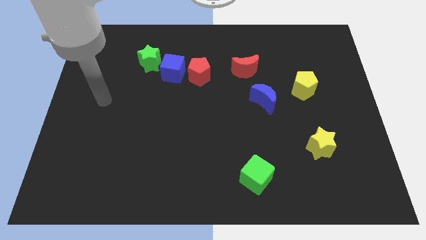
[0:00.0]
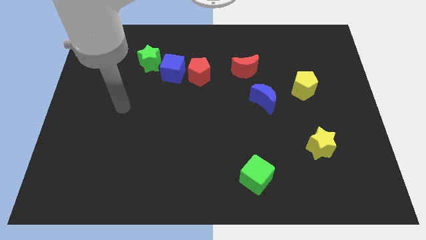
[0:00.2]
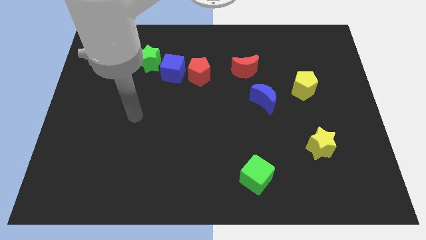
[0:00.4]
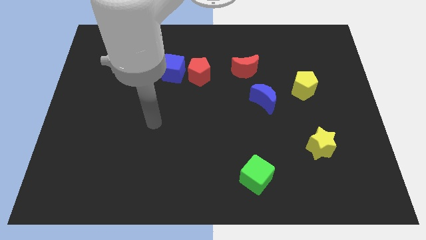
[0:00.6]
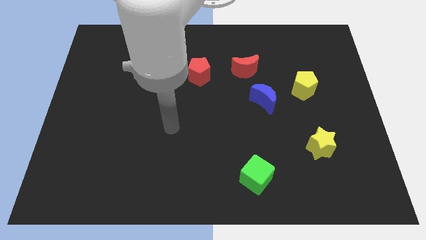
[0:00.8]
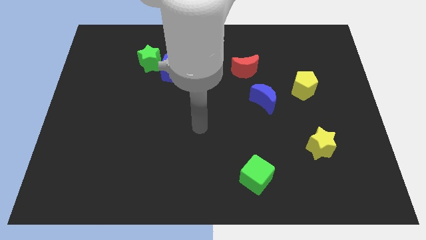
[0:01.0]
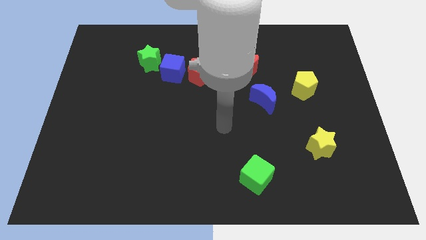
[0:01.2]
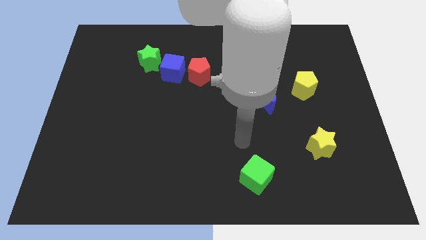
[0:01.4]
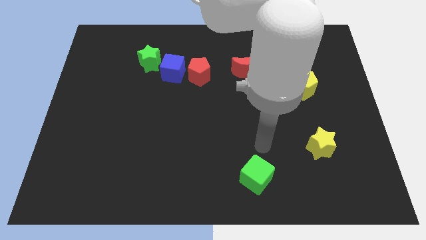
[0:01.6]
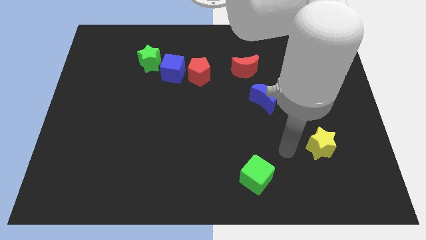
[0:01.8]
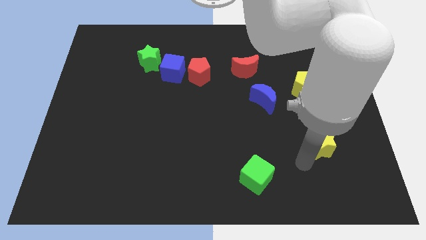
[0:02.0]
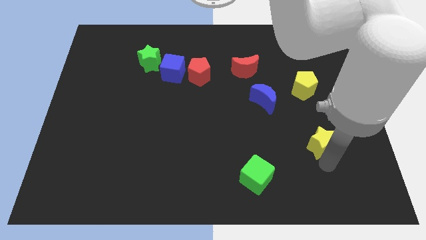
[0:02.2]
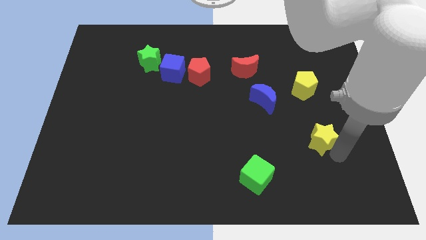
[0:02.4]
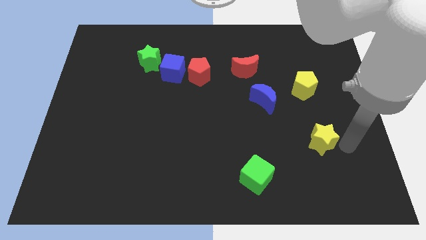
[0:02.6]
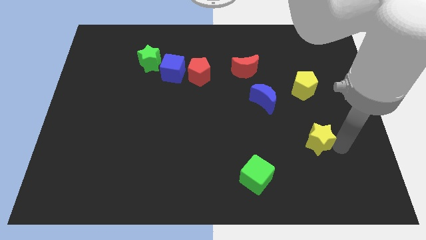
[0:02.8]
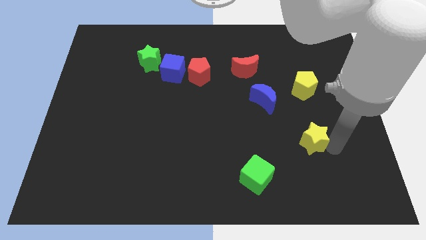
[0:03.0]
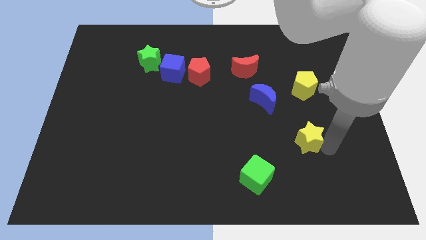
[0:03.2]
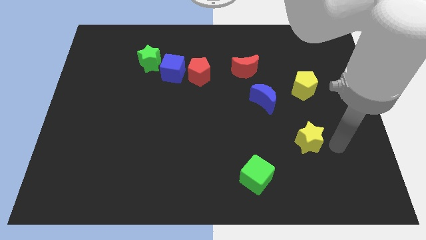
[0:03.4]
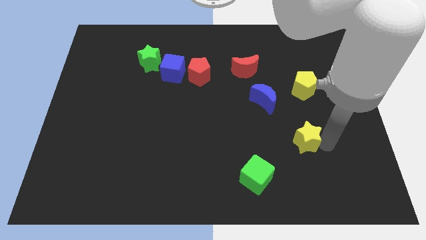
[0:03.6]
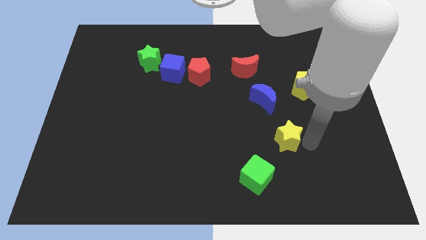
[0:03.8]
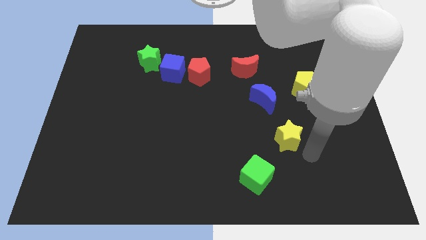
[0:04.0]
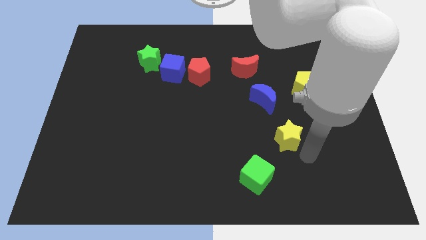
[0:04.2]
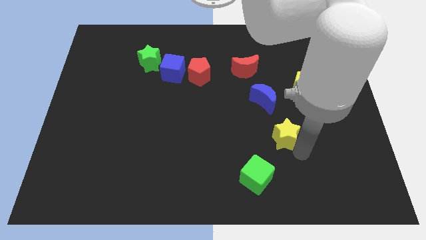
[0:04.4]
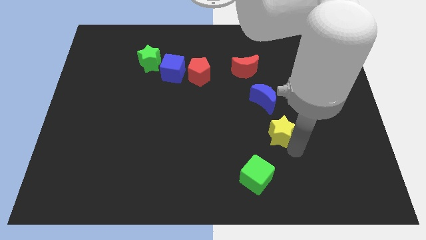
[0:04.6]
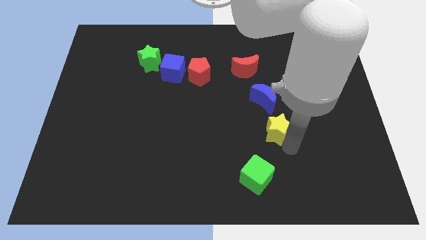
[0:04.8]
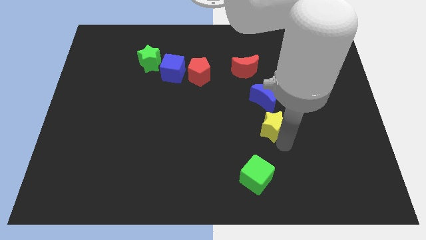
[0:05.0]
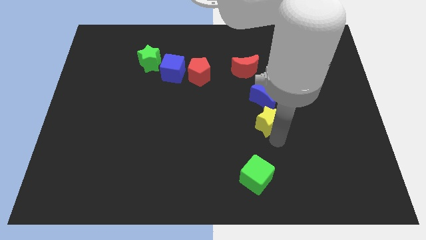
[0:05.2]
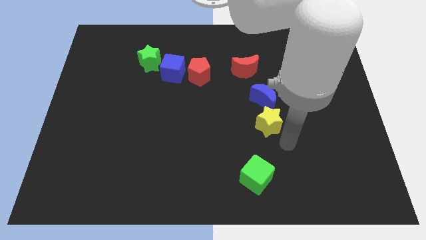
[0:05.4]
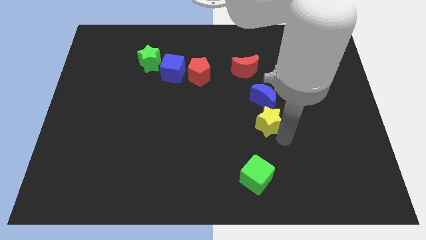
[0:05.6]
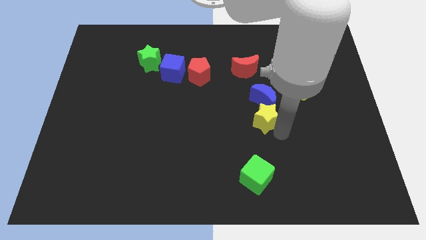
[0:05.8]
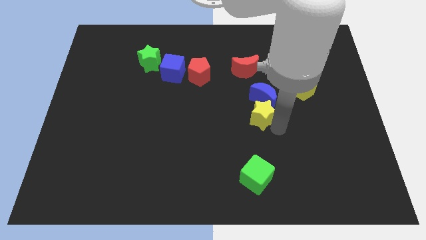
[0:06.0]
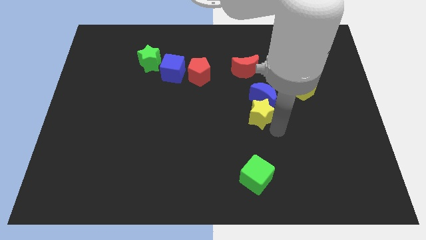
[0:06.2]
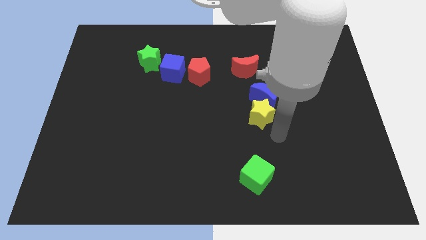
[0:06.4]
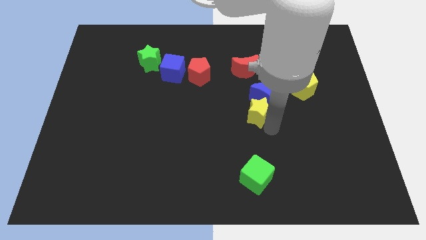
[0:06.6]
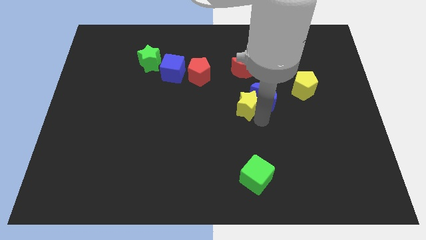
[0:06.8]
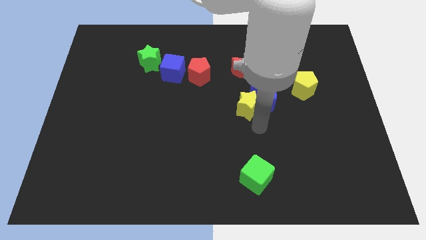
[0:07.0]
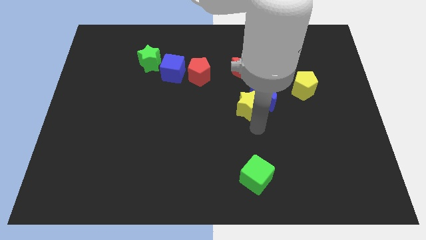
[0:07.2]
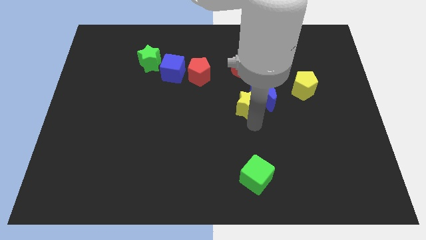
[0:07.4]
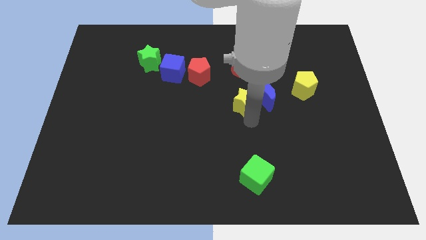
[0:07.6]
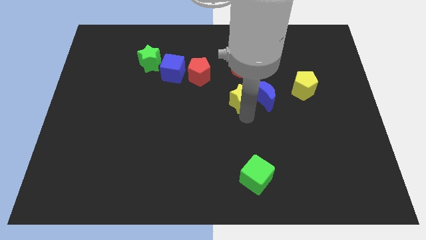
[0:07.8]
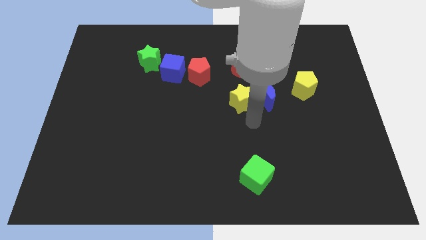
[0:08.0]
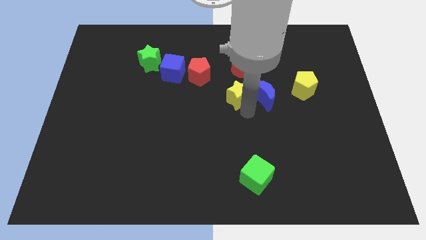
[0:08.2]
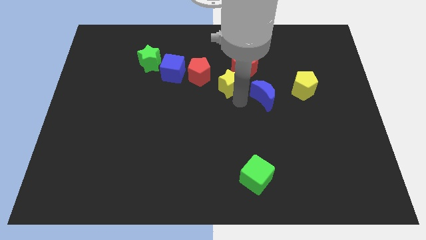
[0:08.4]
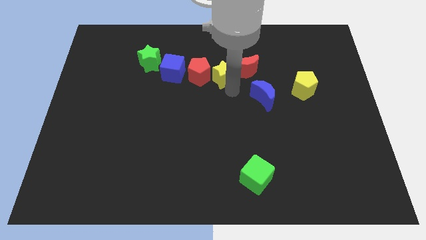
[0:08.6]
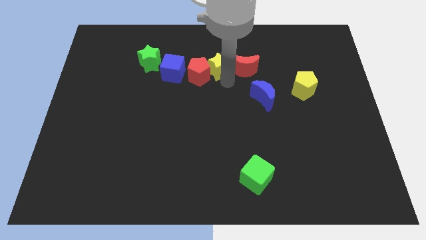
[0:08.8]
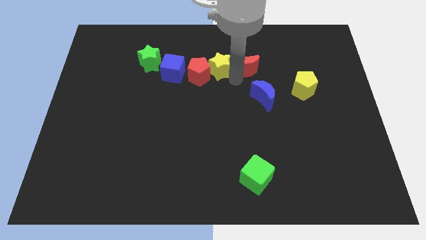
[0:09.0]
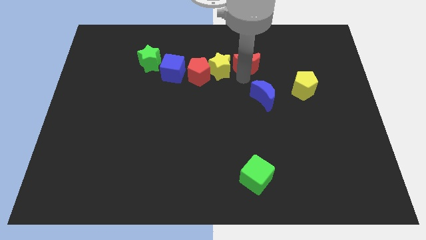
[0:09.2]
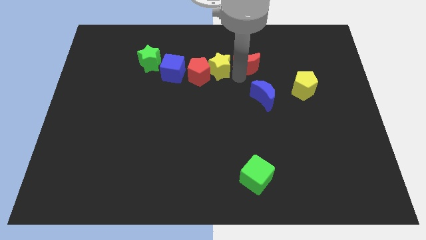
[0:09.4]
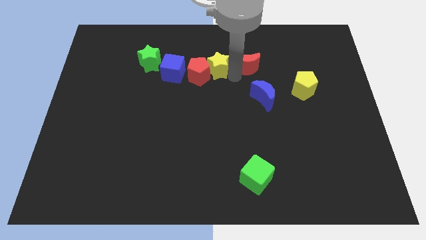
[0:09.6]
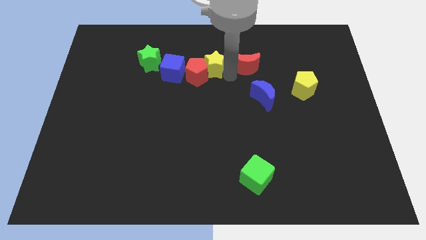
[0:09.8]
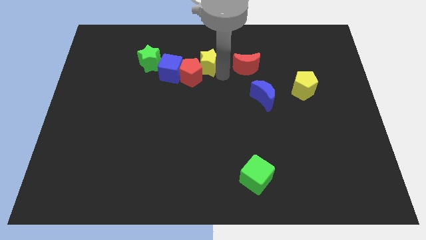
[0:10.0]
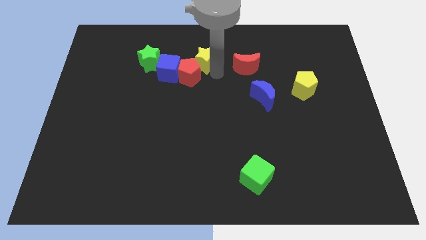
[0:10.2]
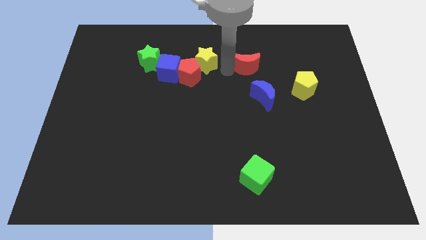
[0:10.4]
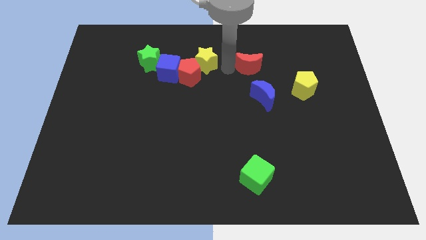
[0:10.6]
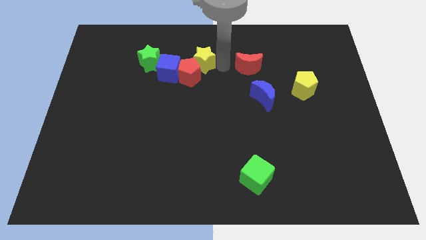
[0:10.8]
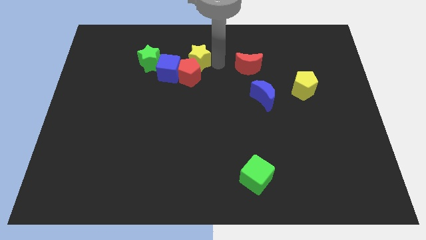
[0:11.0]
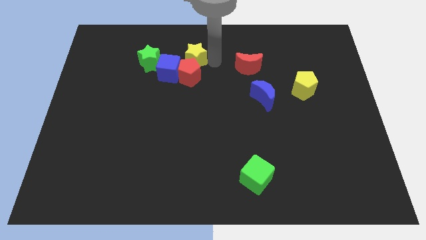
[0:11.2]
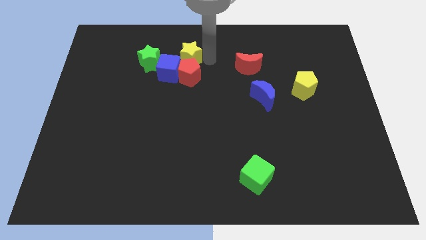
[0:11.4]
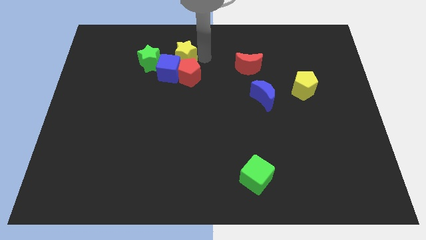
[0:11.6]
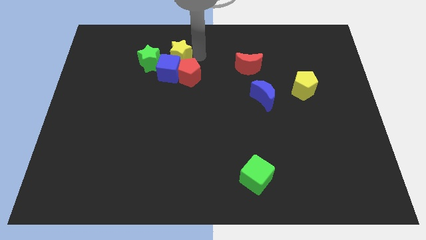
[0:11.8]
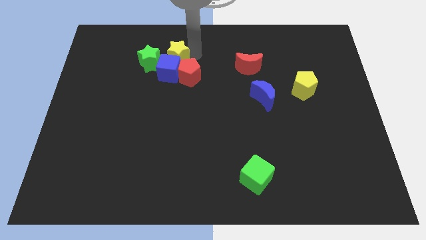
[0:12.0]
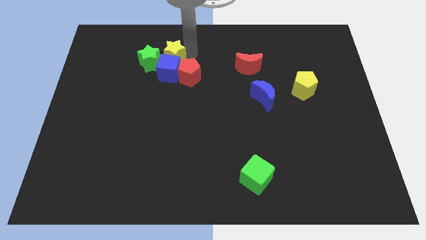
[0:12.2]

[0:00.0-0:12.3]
put the yellow star diagonally up and to the left of the blue cube

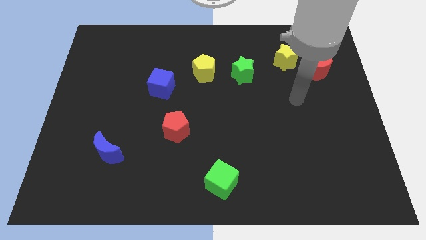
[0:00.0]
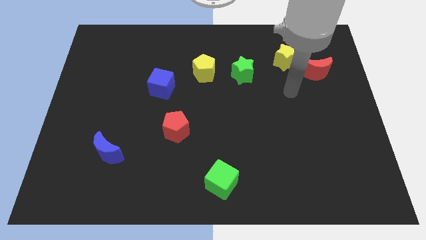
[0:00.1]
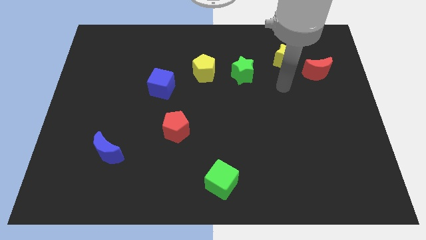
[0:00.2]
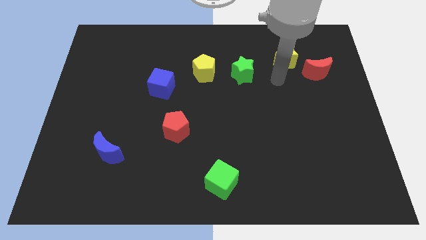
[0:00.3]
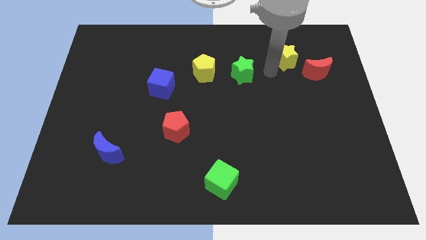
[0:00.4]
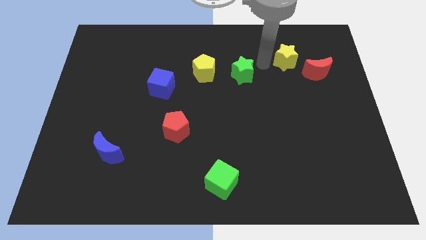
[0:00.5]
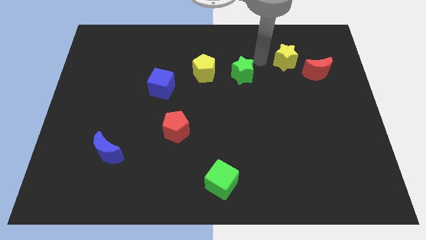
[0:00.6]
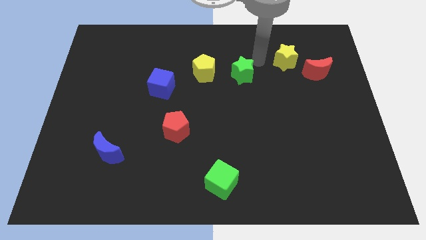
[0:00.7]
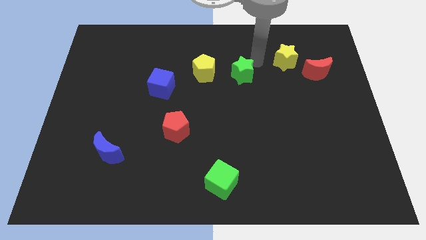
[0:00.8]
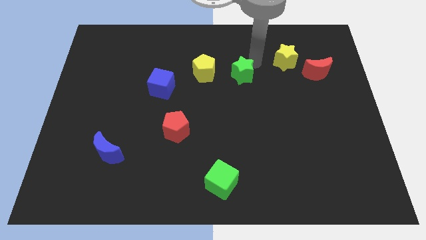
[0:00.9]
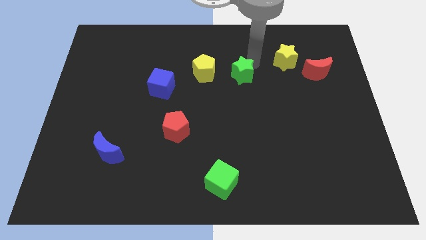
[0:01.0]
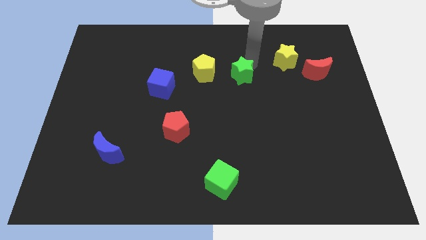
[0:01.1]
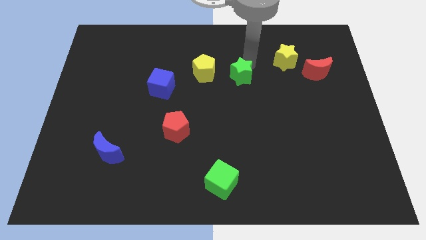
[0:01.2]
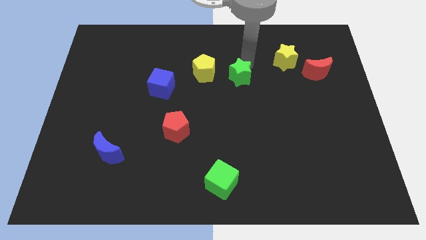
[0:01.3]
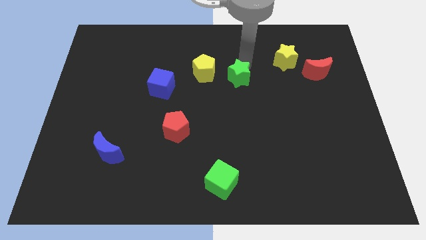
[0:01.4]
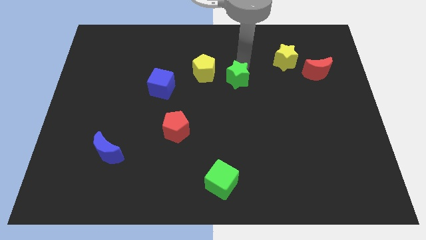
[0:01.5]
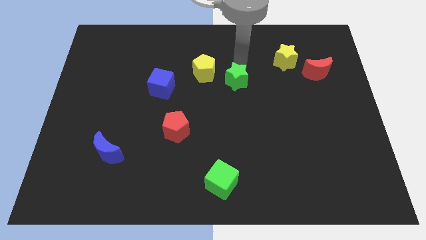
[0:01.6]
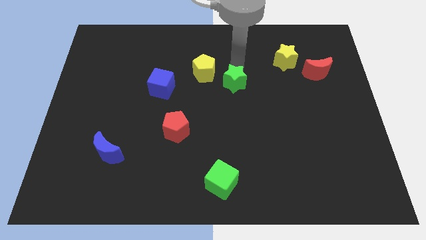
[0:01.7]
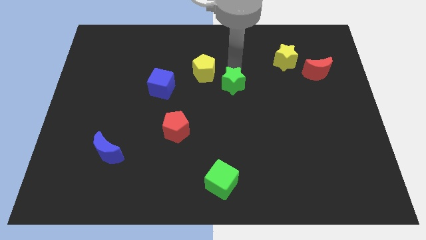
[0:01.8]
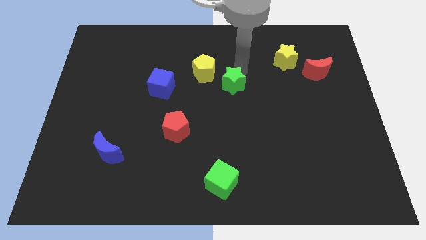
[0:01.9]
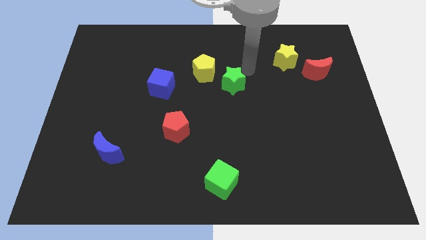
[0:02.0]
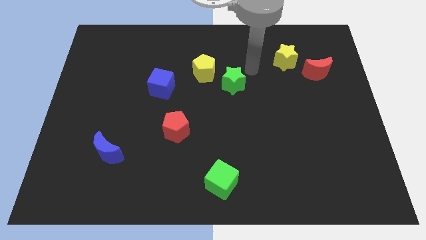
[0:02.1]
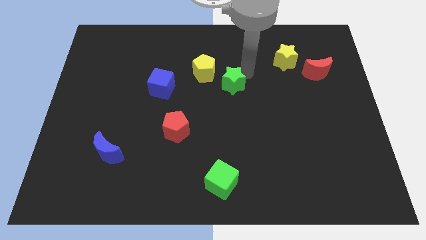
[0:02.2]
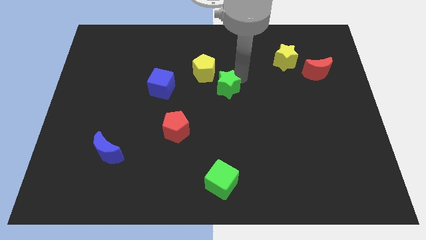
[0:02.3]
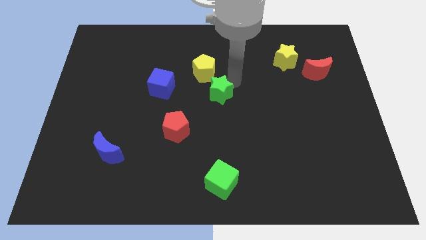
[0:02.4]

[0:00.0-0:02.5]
put the green star to the bottom of the yellow pentagon
